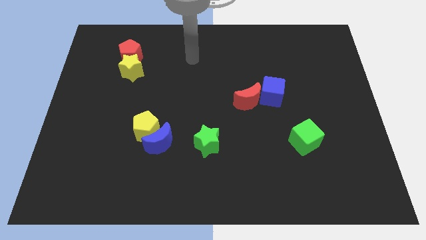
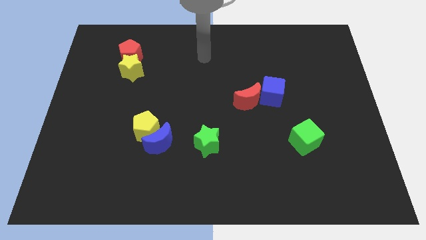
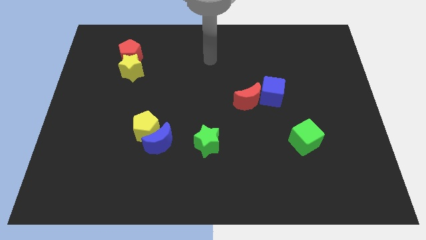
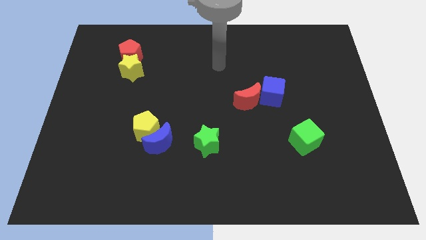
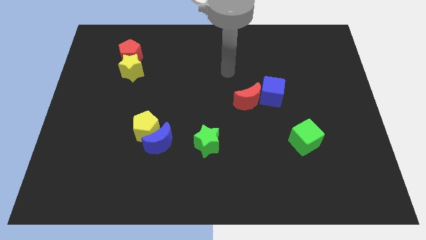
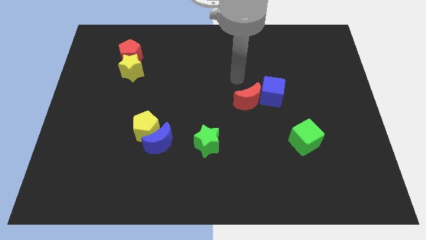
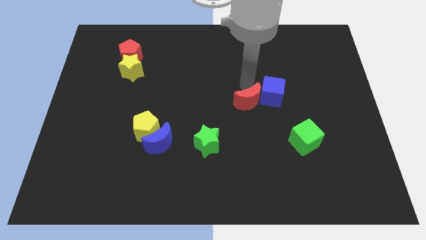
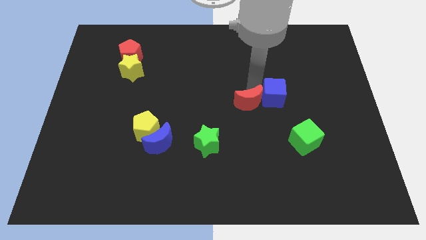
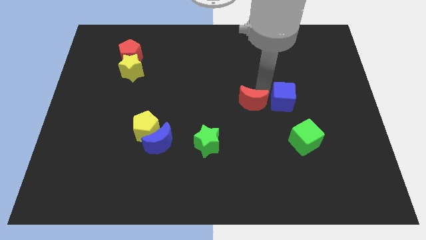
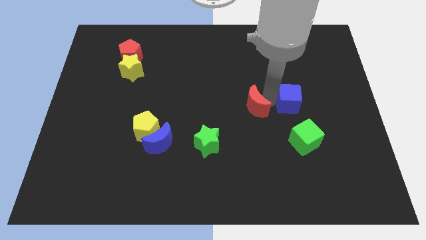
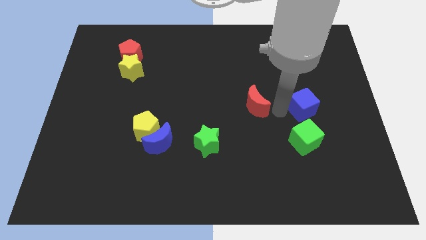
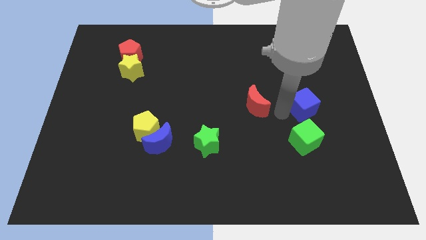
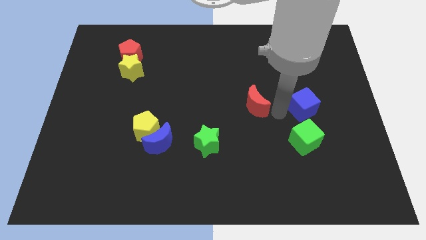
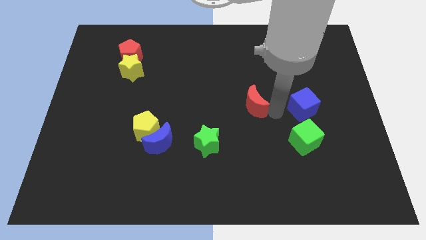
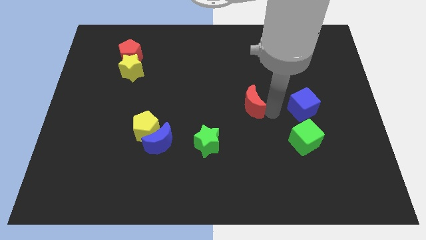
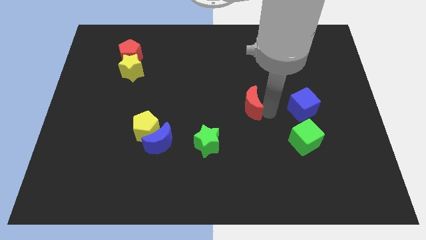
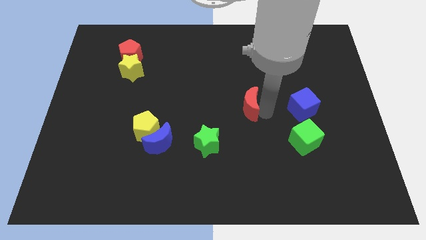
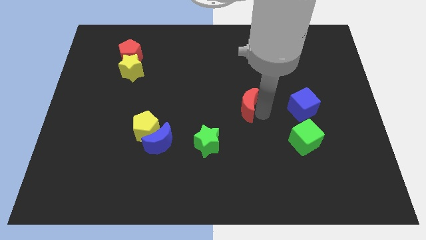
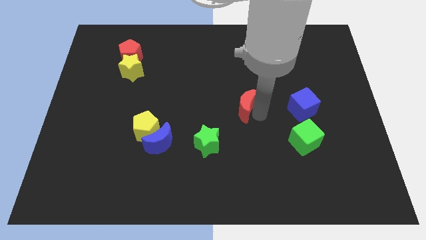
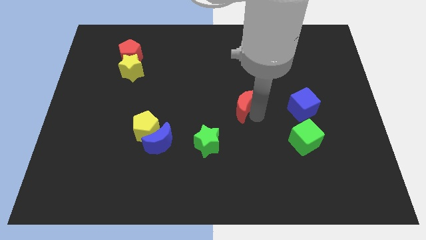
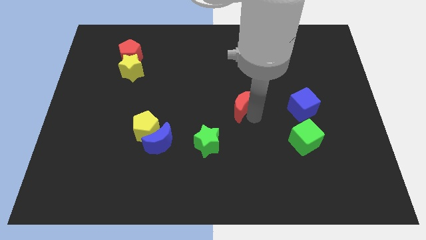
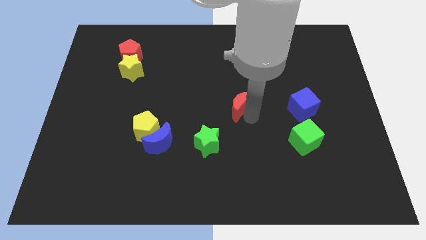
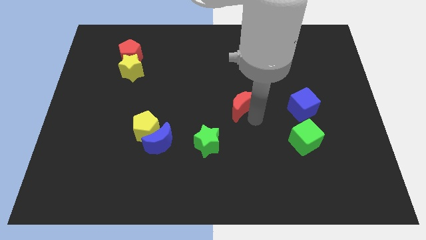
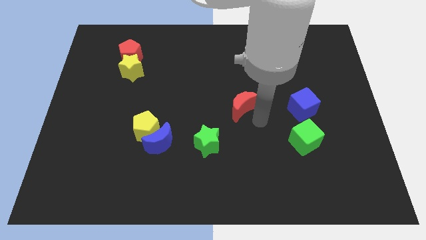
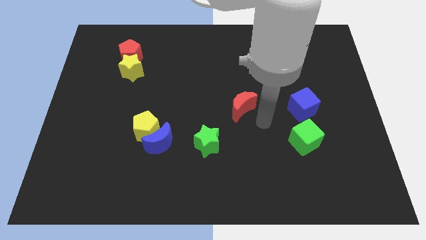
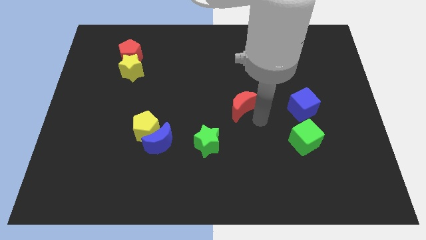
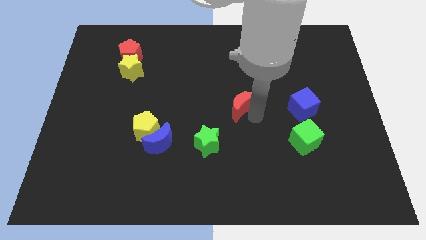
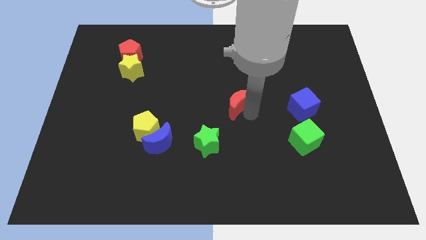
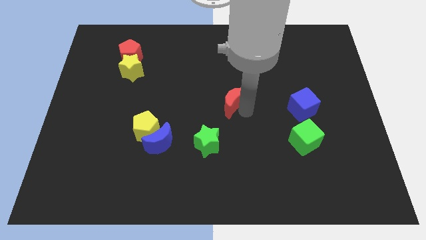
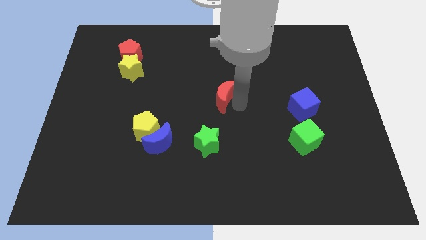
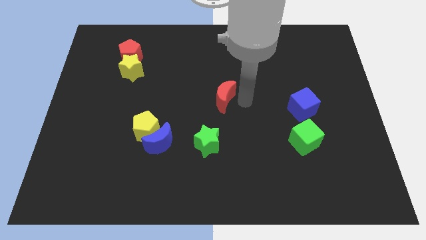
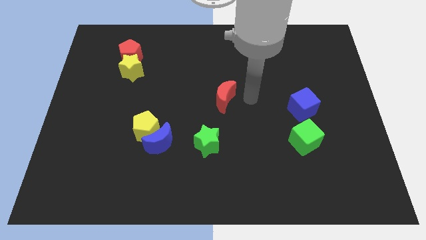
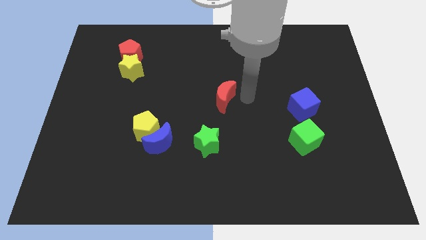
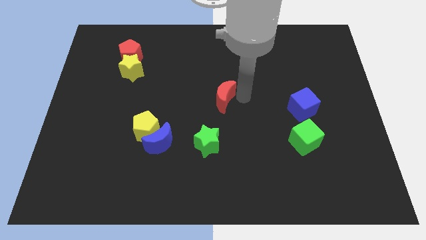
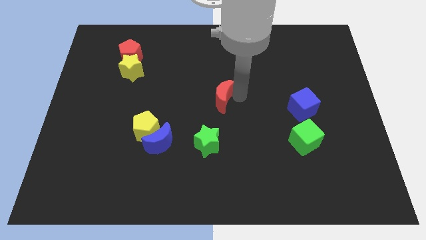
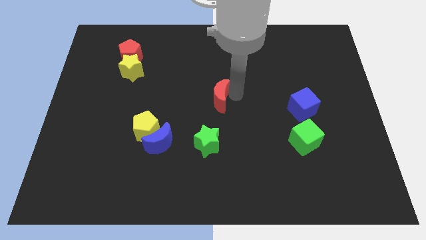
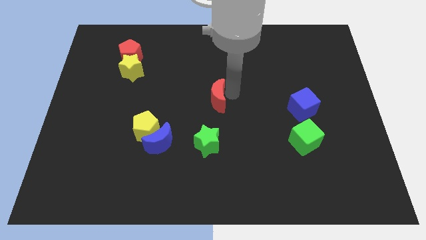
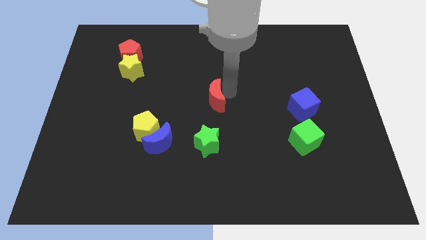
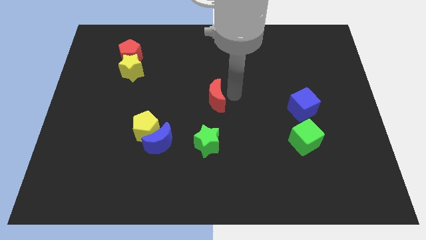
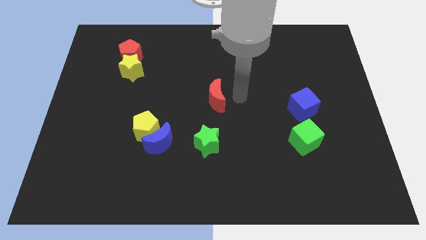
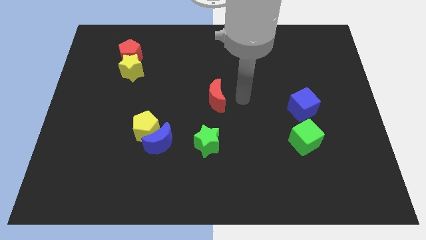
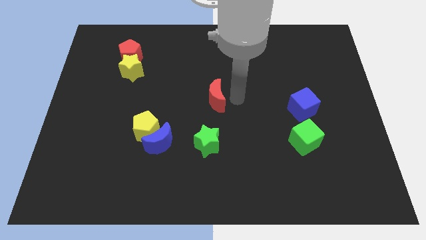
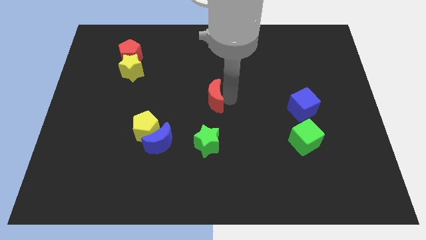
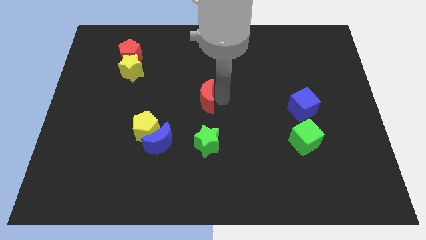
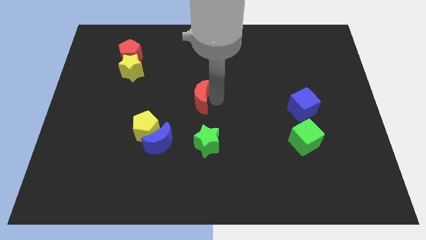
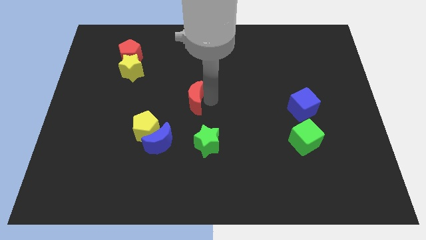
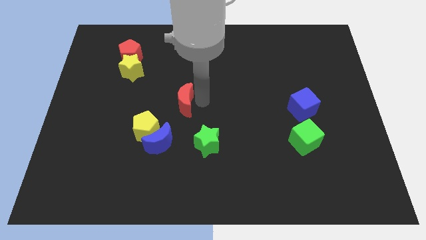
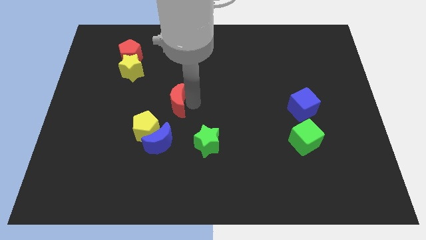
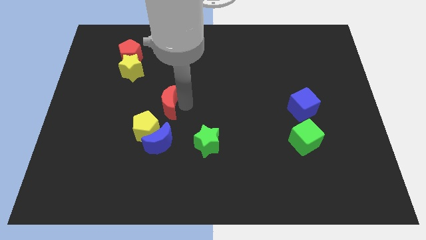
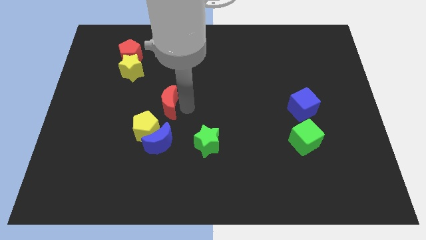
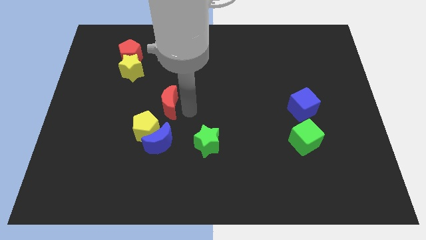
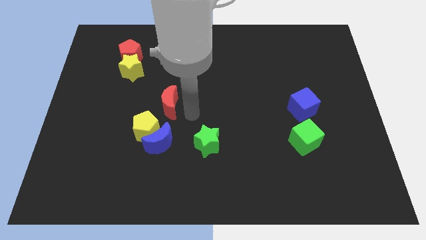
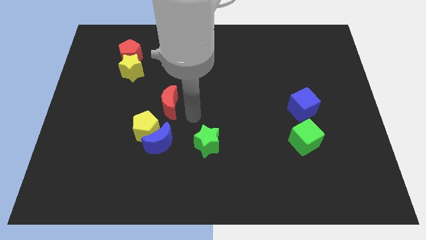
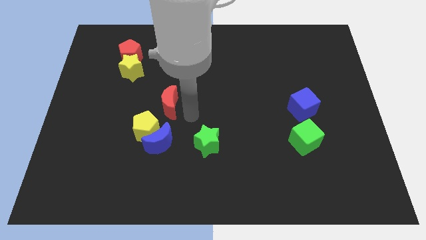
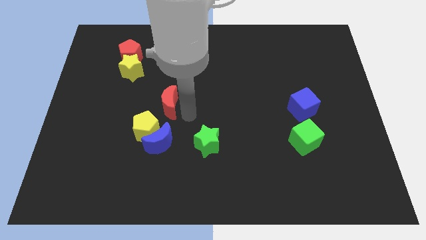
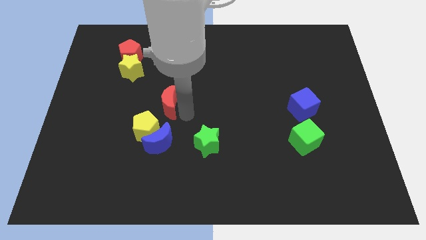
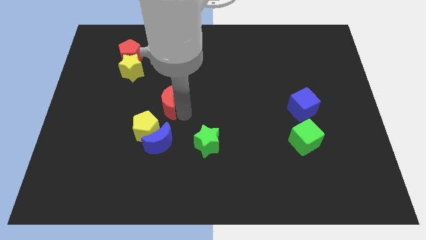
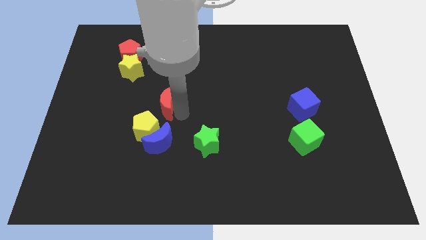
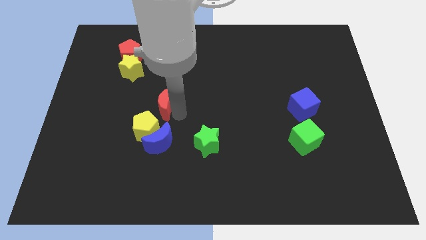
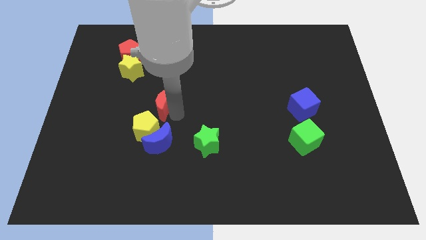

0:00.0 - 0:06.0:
move the red moon left

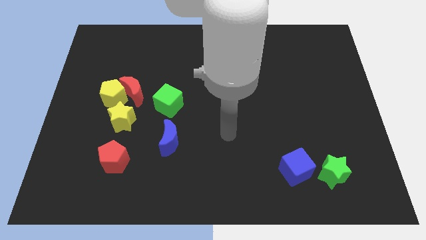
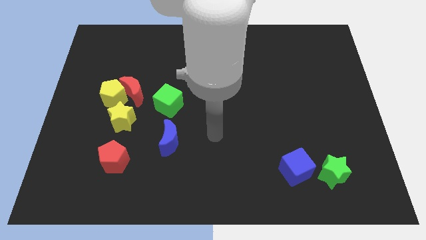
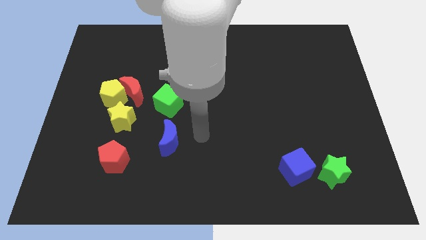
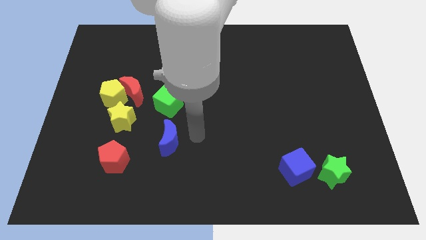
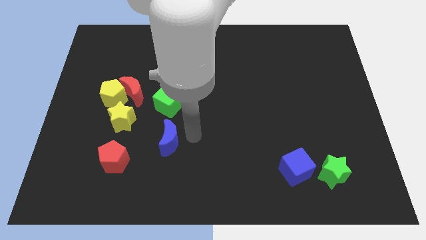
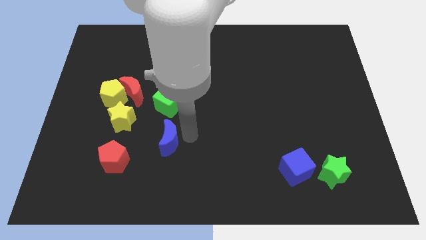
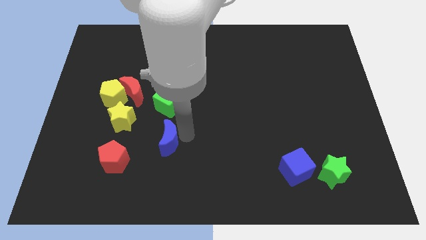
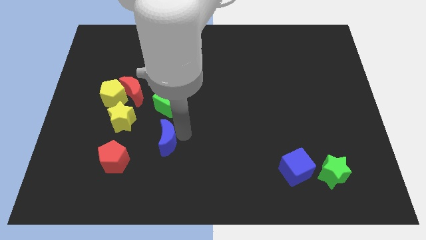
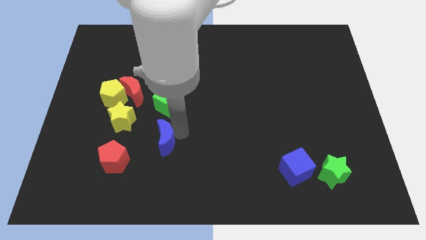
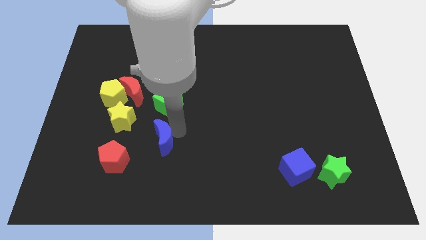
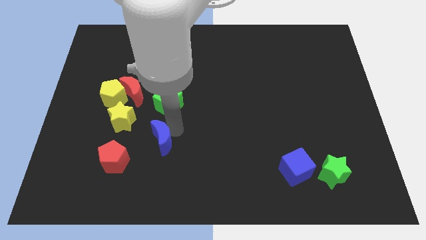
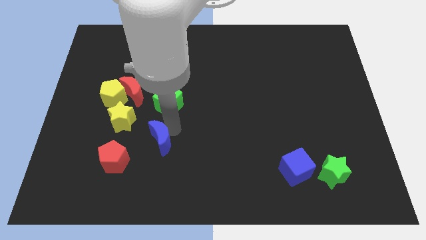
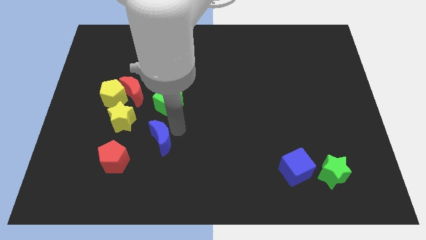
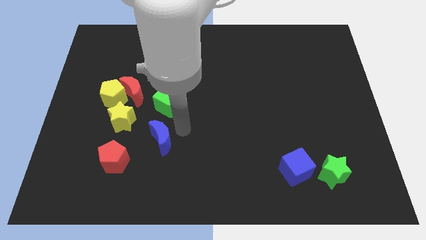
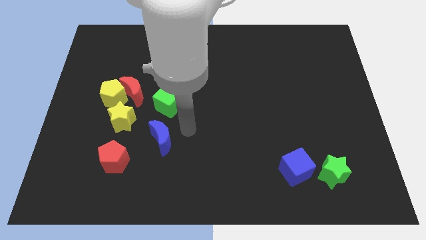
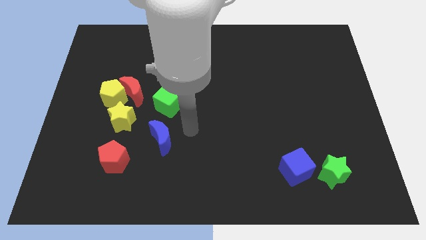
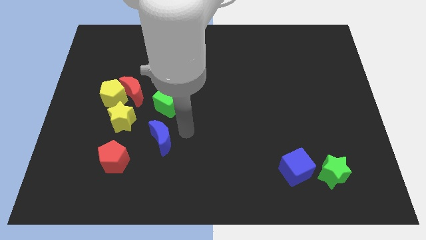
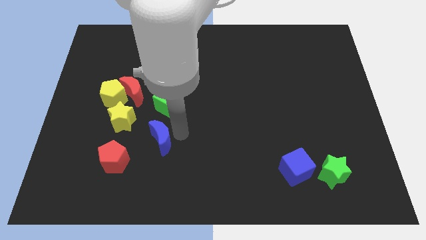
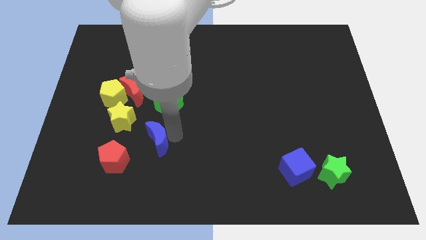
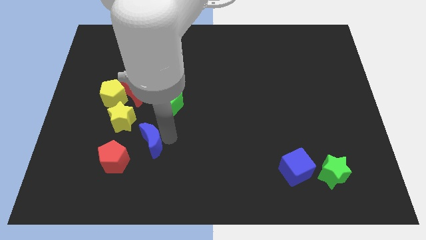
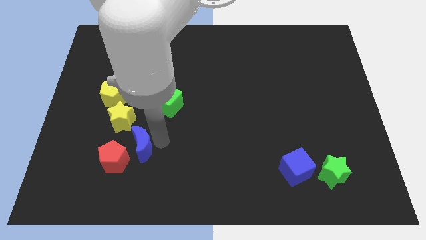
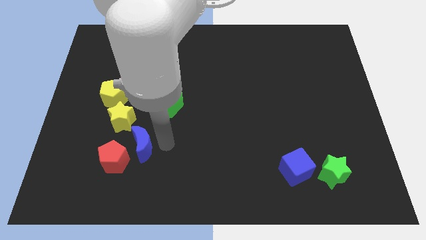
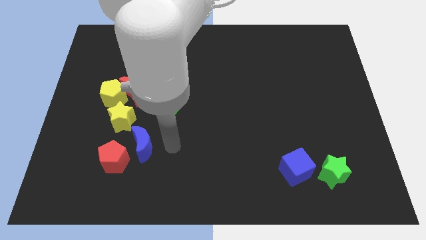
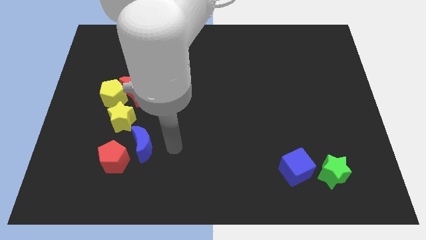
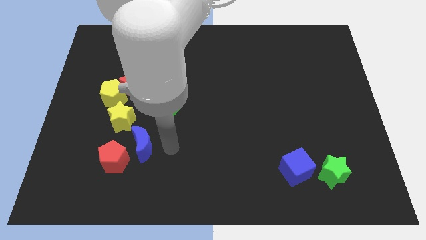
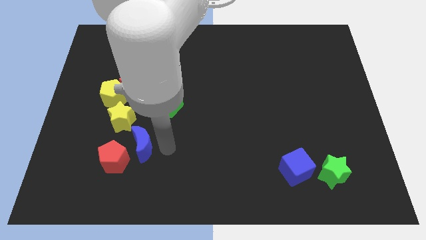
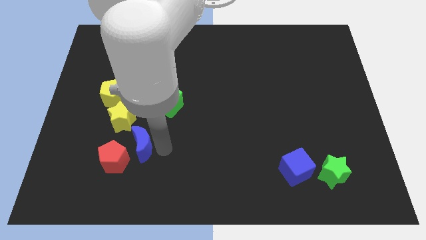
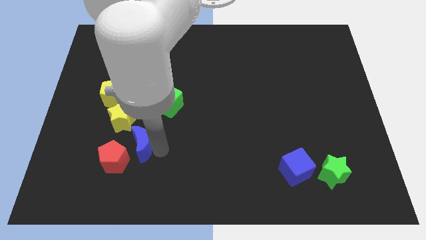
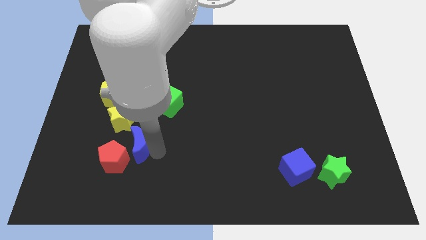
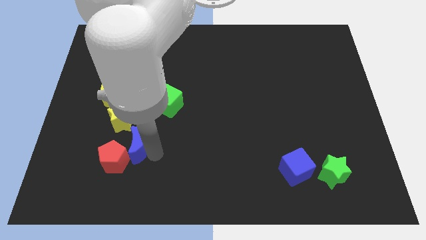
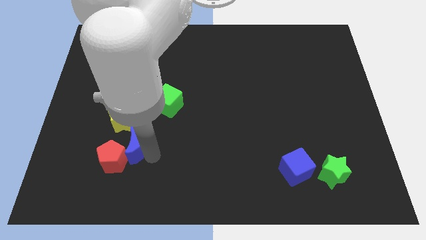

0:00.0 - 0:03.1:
push the blue moon a bit left
